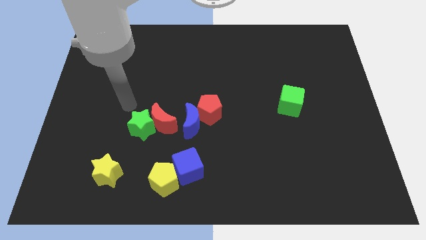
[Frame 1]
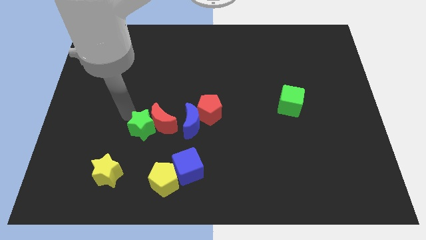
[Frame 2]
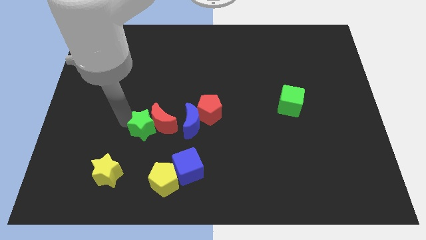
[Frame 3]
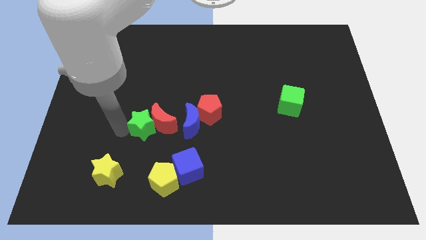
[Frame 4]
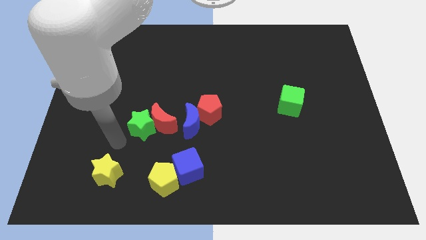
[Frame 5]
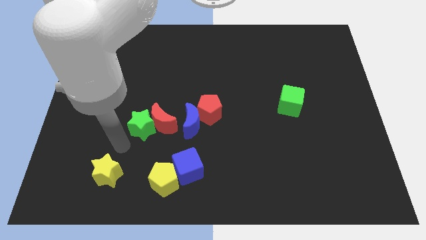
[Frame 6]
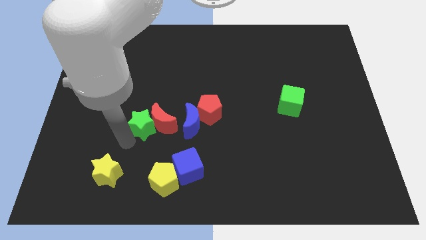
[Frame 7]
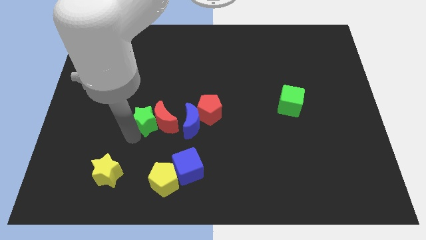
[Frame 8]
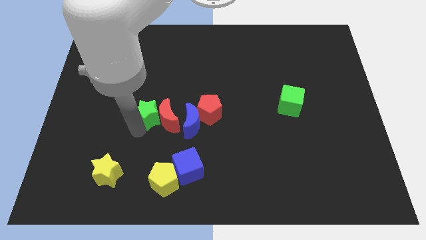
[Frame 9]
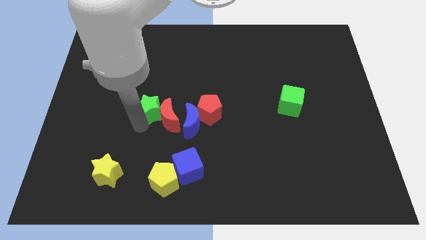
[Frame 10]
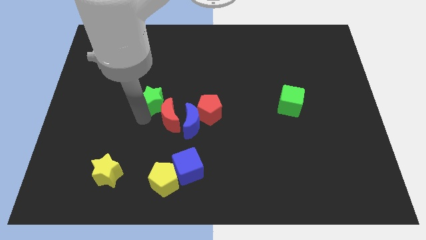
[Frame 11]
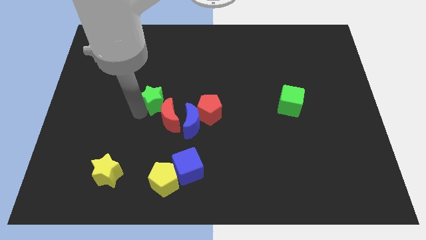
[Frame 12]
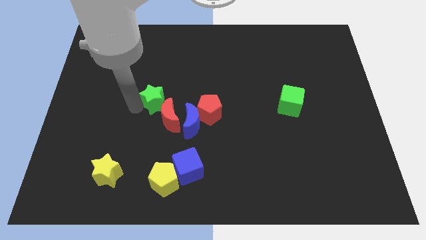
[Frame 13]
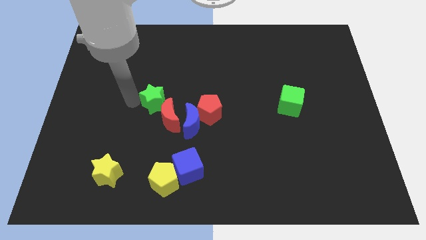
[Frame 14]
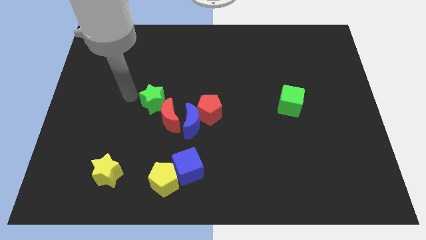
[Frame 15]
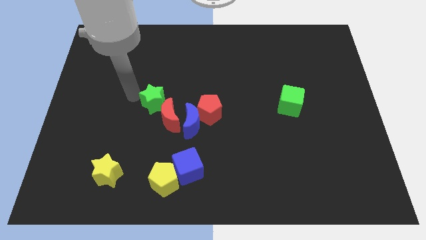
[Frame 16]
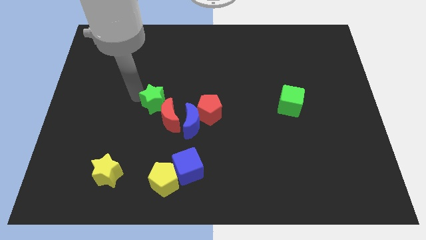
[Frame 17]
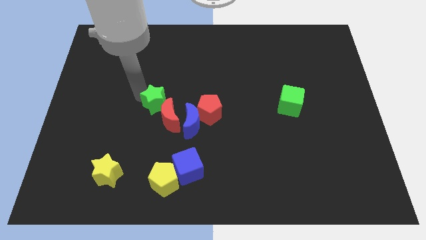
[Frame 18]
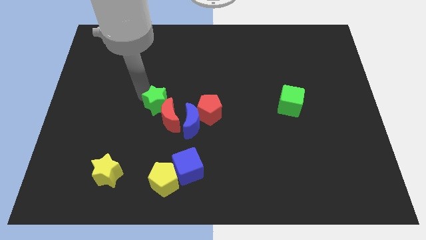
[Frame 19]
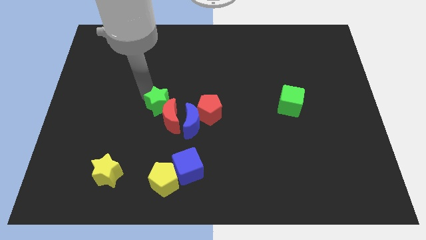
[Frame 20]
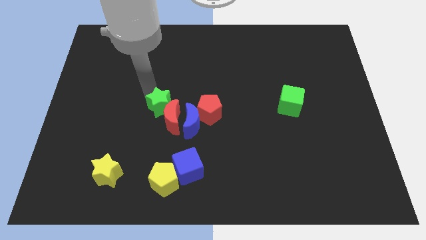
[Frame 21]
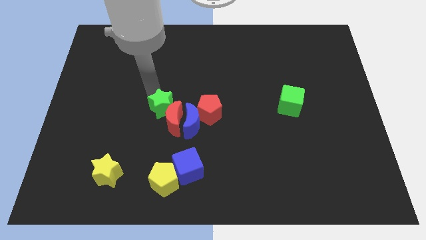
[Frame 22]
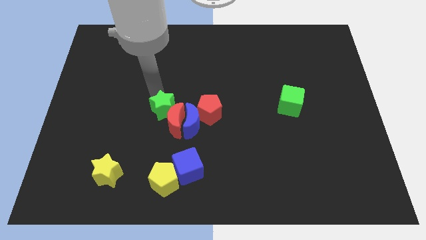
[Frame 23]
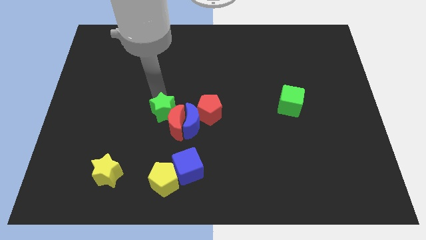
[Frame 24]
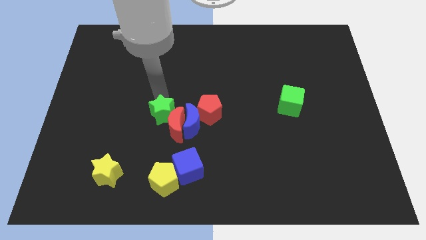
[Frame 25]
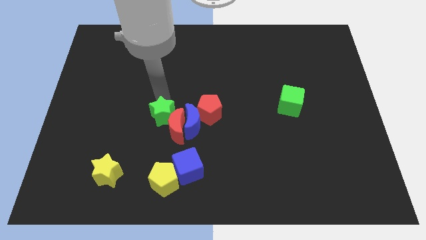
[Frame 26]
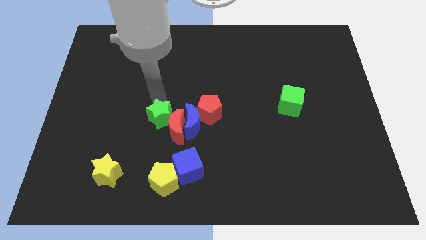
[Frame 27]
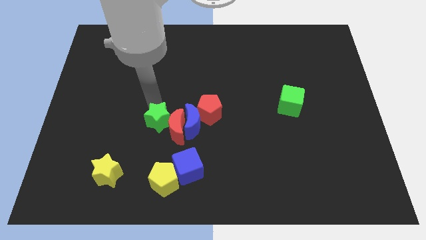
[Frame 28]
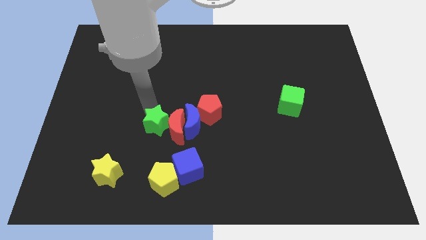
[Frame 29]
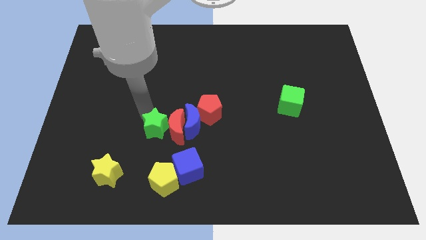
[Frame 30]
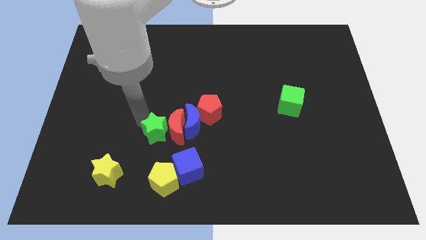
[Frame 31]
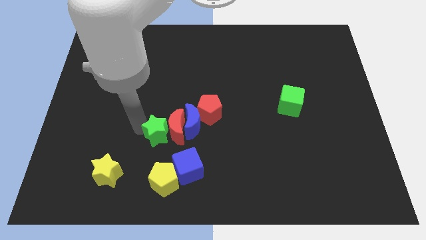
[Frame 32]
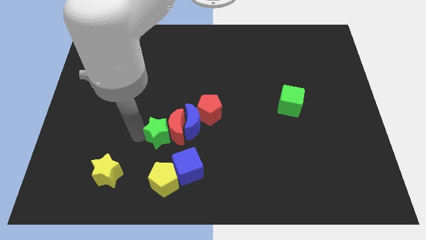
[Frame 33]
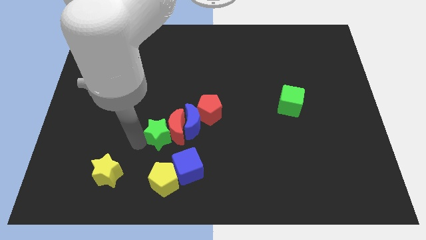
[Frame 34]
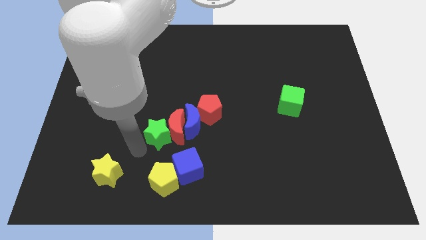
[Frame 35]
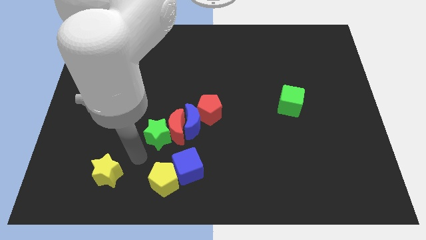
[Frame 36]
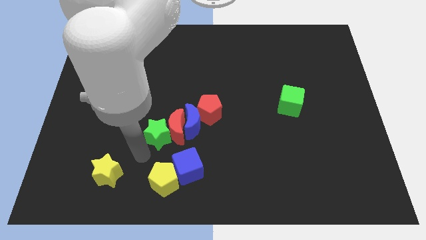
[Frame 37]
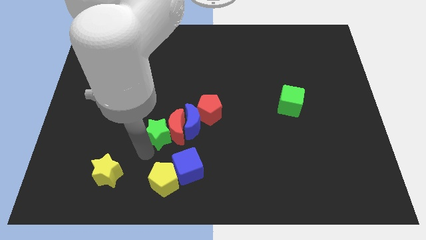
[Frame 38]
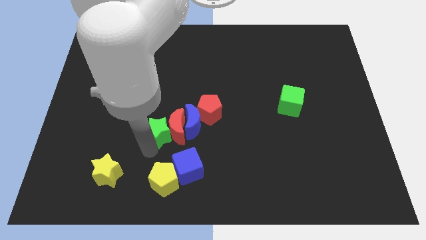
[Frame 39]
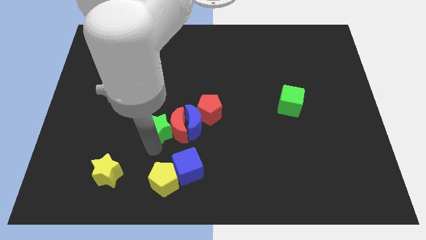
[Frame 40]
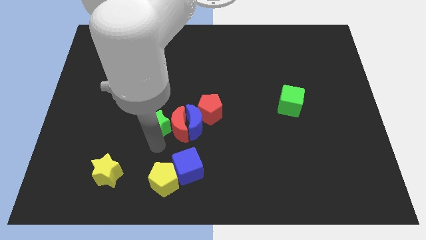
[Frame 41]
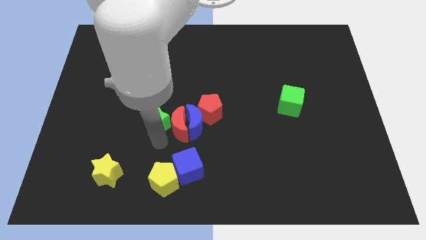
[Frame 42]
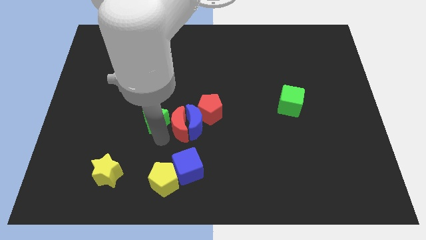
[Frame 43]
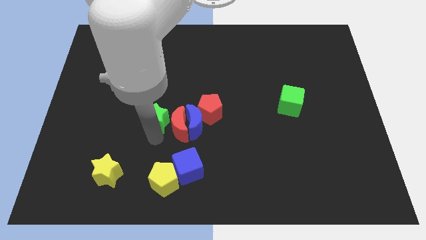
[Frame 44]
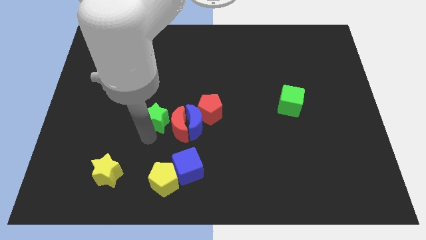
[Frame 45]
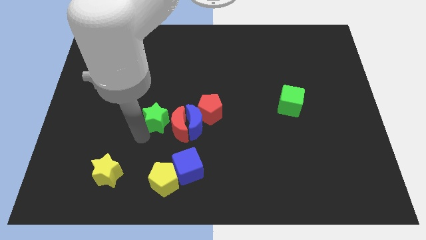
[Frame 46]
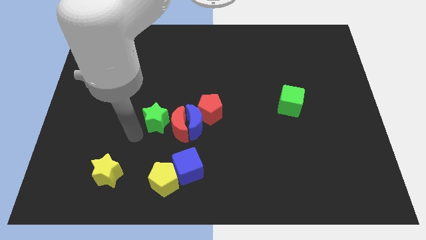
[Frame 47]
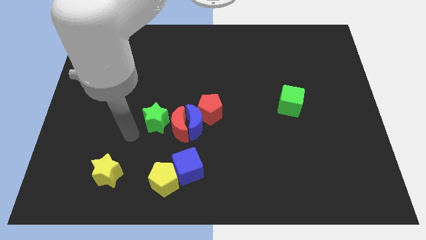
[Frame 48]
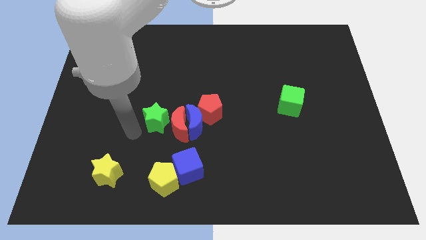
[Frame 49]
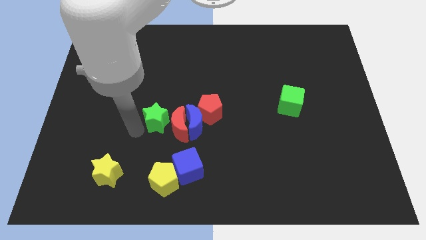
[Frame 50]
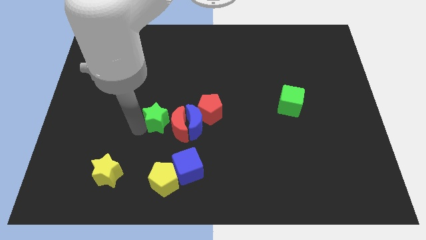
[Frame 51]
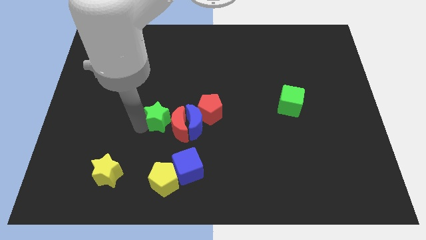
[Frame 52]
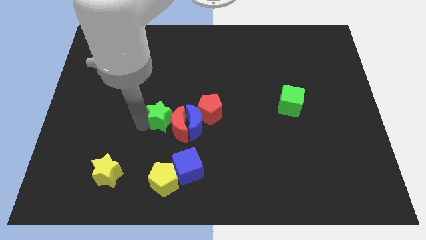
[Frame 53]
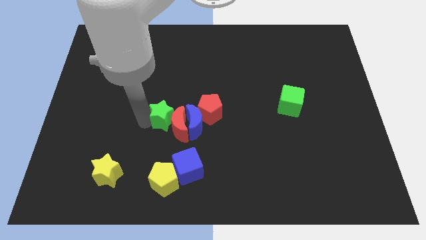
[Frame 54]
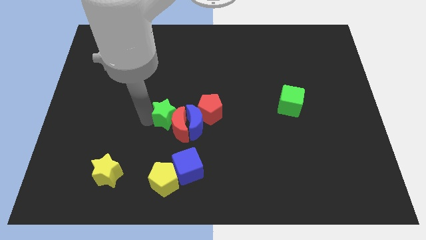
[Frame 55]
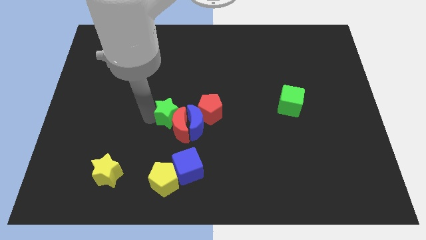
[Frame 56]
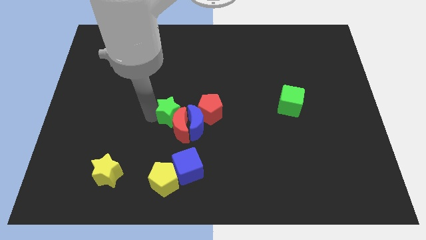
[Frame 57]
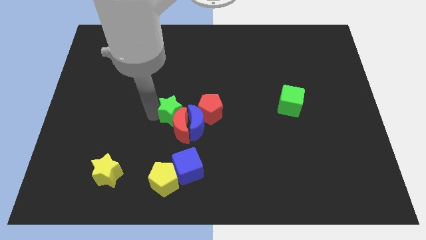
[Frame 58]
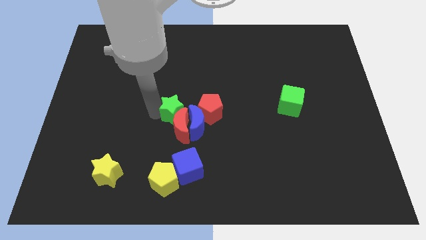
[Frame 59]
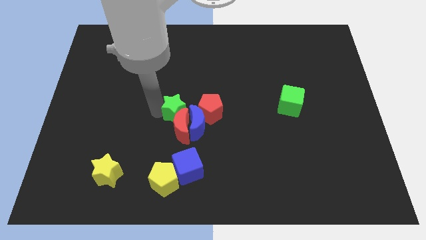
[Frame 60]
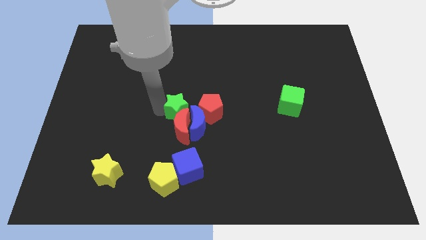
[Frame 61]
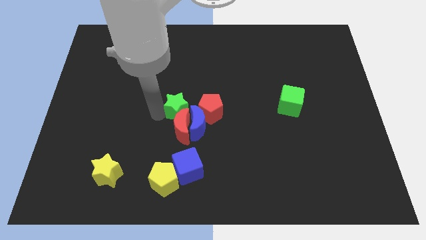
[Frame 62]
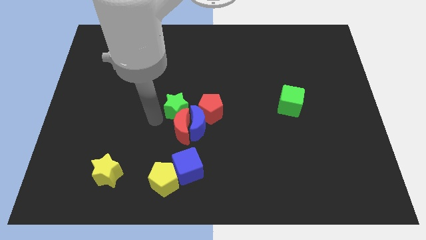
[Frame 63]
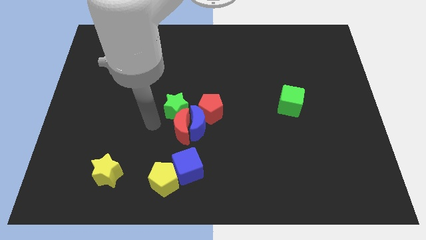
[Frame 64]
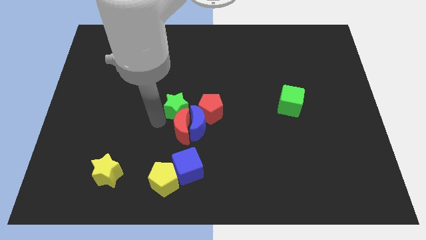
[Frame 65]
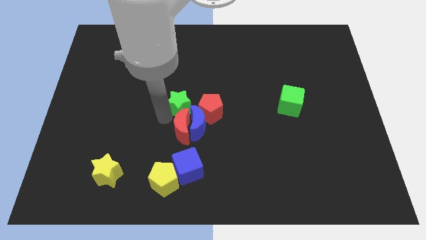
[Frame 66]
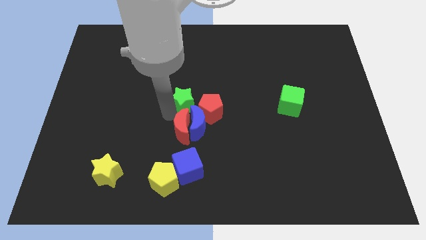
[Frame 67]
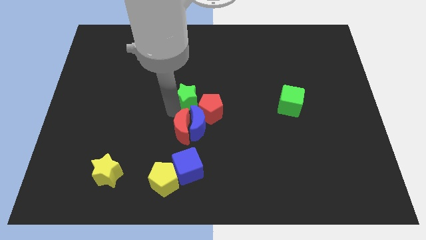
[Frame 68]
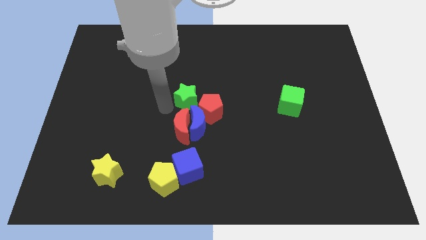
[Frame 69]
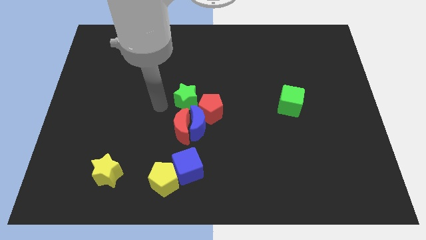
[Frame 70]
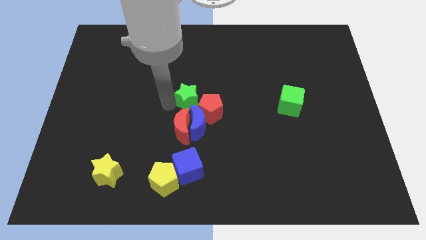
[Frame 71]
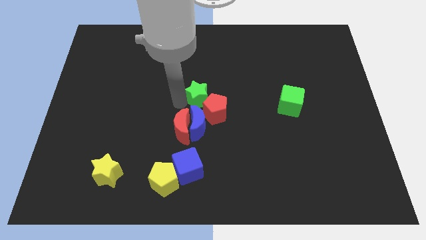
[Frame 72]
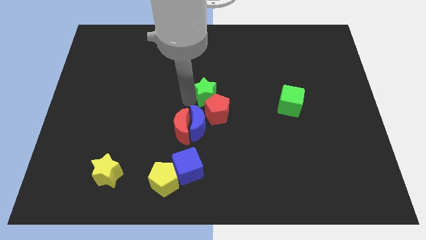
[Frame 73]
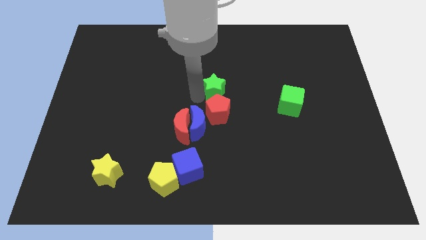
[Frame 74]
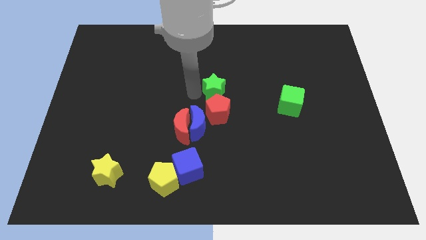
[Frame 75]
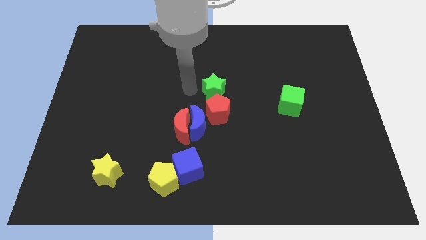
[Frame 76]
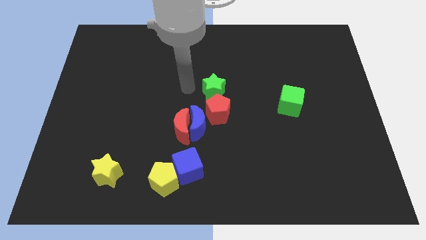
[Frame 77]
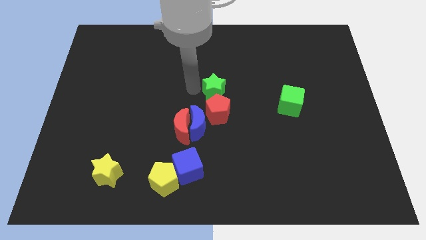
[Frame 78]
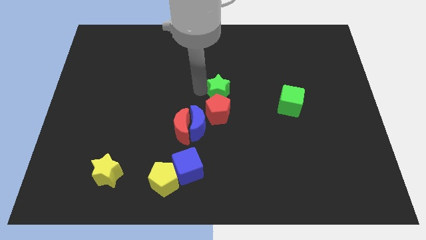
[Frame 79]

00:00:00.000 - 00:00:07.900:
slide the green star to the top right side of the red pentagon

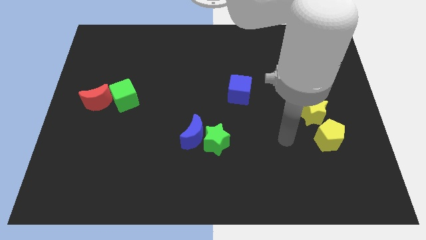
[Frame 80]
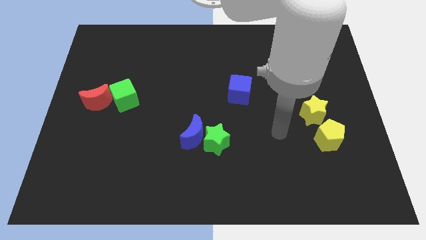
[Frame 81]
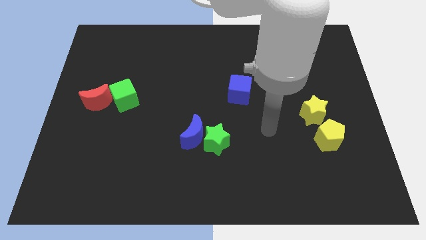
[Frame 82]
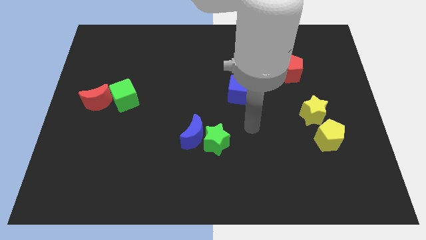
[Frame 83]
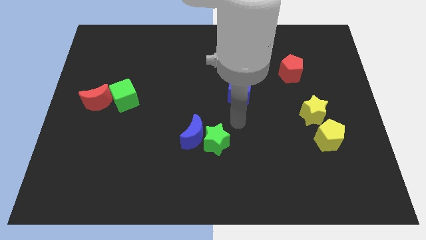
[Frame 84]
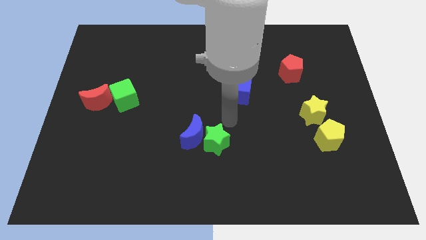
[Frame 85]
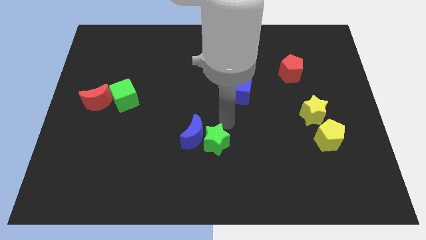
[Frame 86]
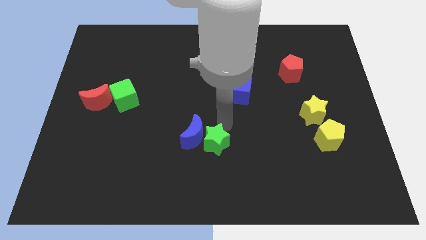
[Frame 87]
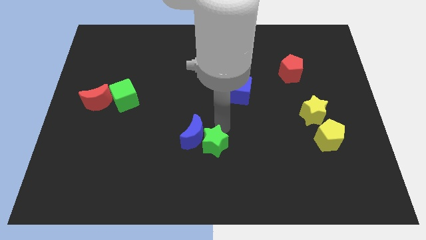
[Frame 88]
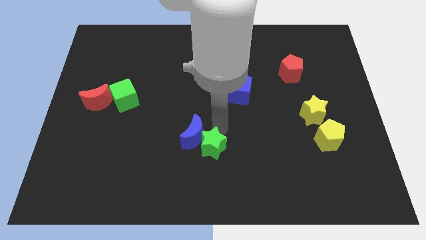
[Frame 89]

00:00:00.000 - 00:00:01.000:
move the green star to the bottom side of the blue moon
